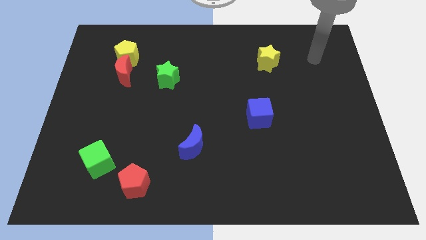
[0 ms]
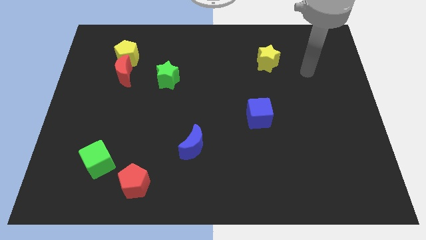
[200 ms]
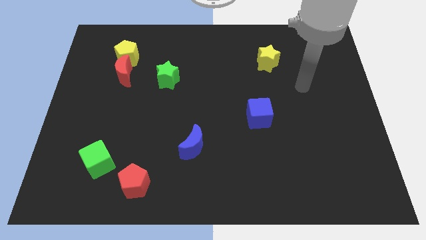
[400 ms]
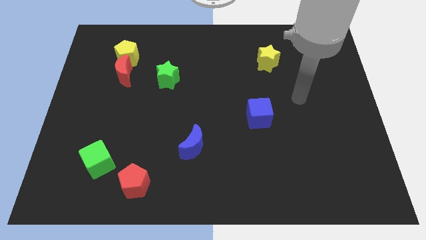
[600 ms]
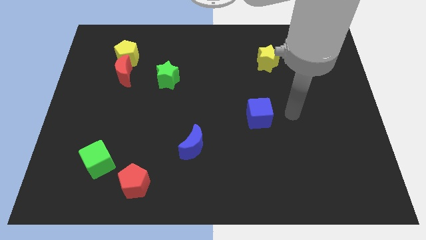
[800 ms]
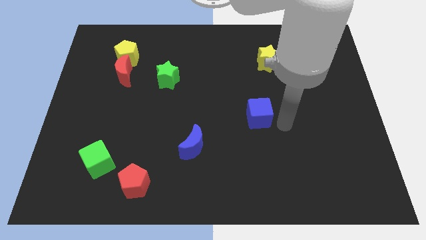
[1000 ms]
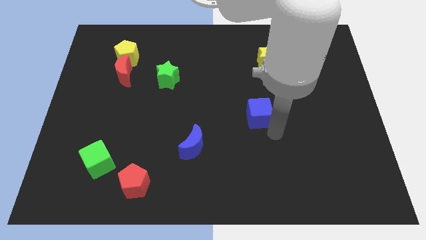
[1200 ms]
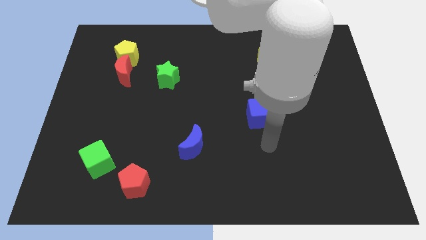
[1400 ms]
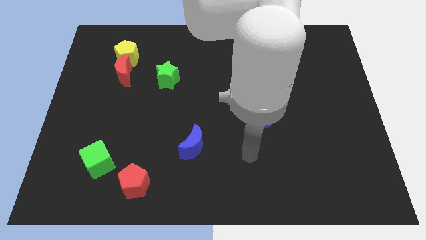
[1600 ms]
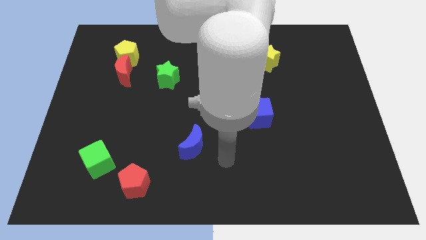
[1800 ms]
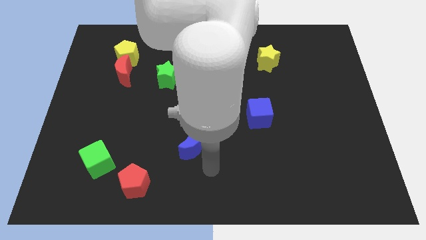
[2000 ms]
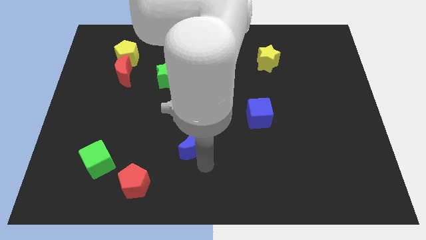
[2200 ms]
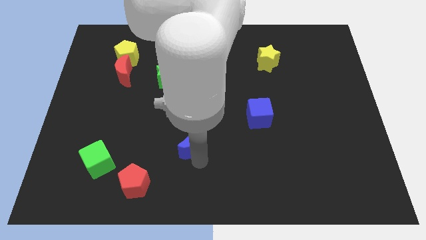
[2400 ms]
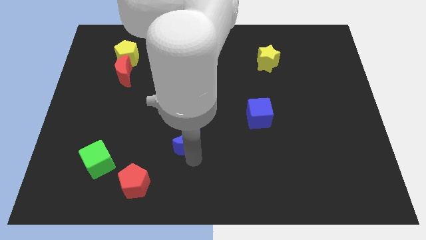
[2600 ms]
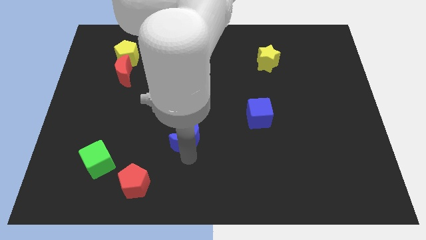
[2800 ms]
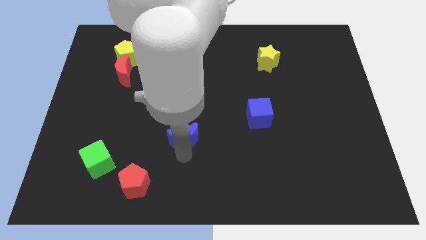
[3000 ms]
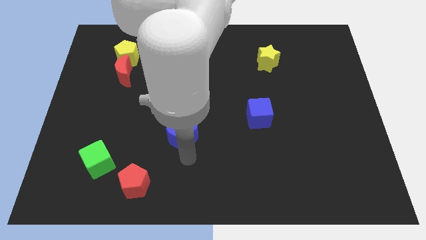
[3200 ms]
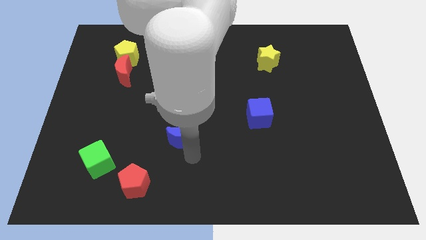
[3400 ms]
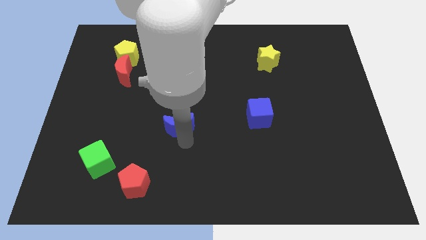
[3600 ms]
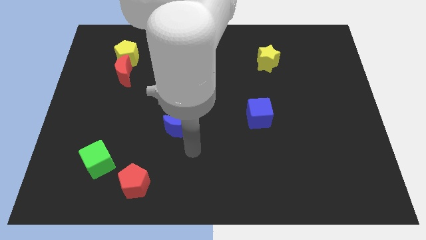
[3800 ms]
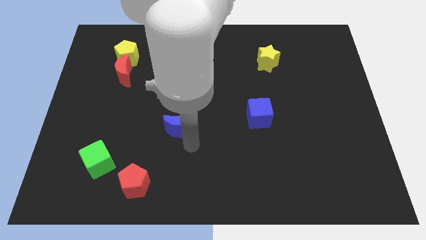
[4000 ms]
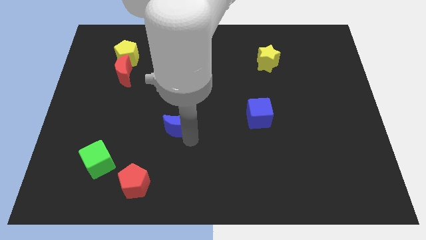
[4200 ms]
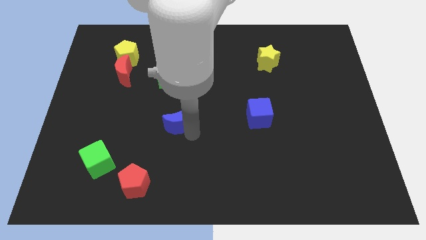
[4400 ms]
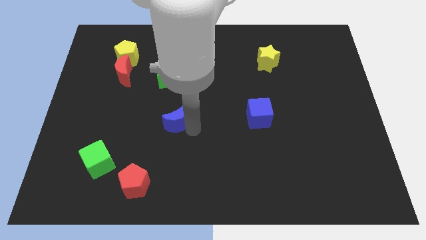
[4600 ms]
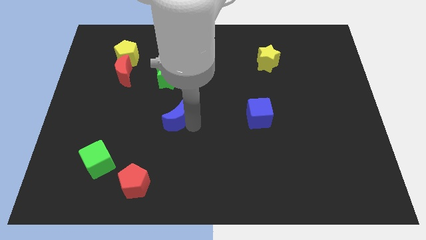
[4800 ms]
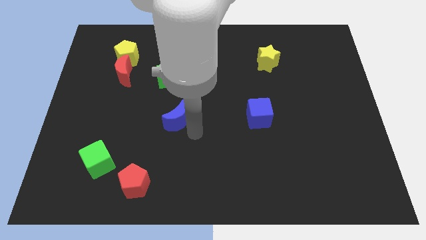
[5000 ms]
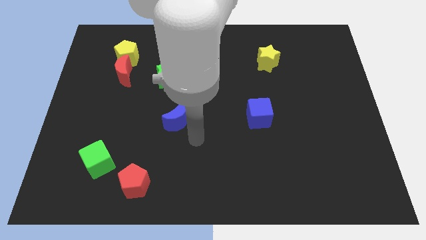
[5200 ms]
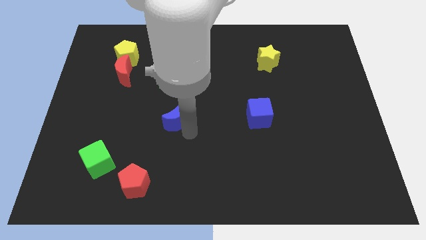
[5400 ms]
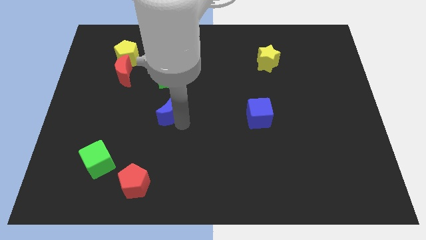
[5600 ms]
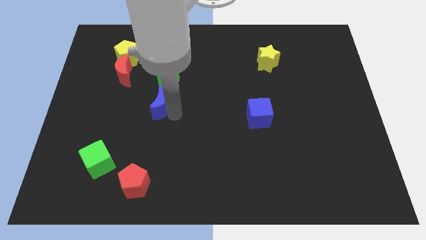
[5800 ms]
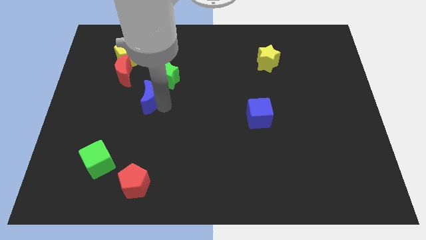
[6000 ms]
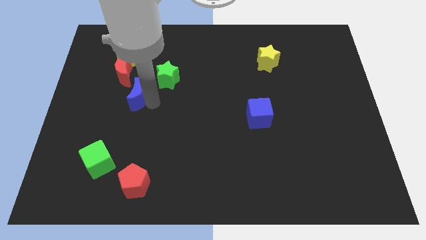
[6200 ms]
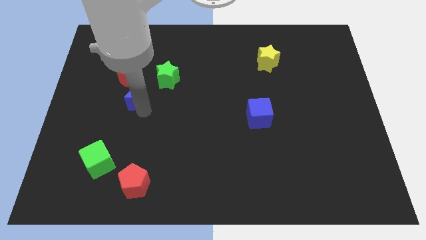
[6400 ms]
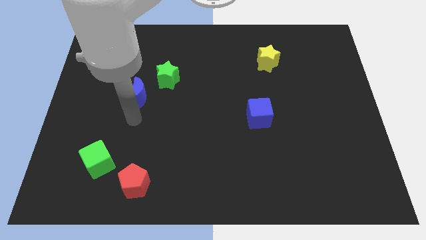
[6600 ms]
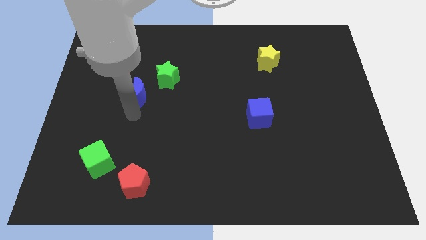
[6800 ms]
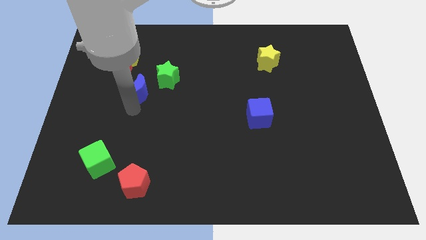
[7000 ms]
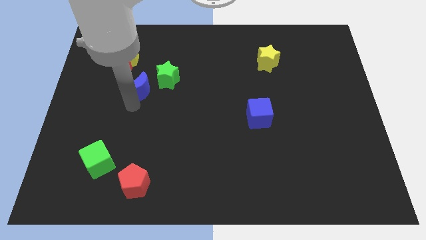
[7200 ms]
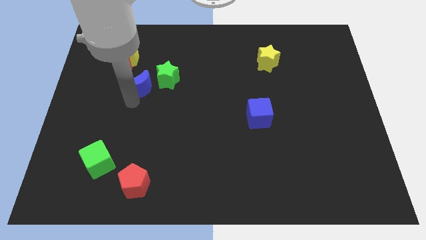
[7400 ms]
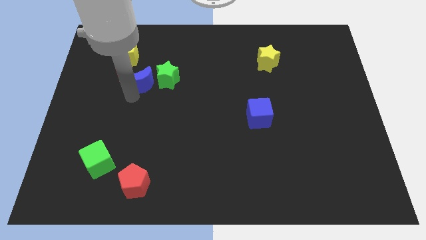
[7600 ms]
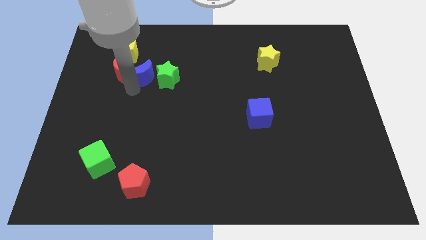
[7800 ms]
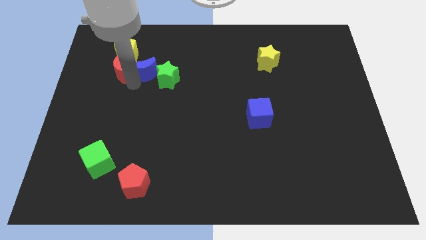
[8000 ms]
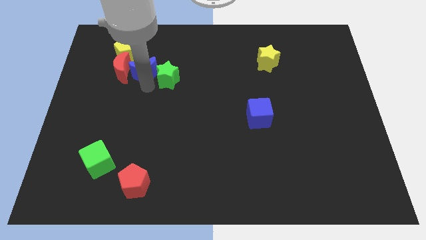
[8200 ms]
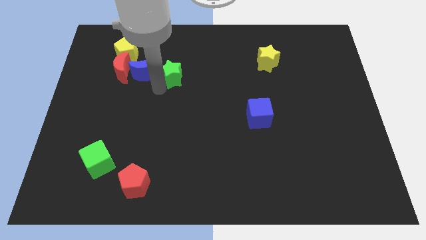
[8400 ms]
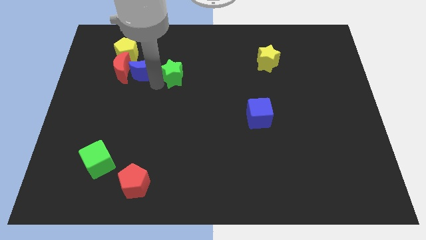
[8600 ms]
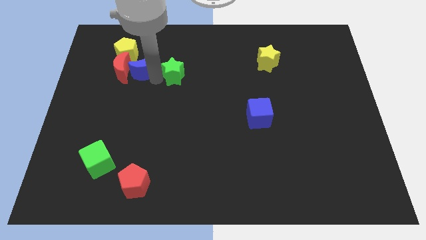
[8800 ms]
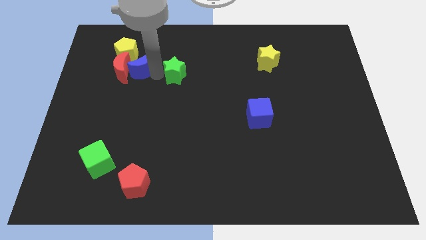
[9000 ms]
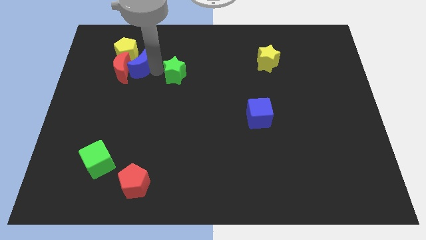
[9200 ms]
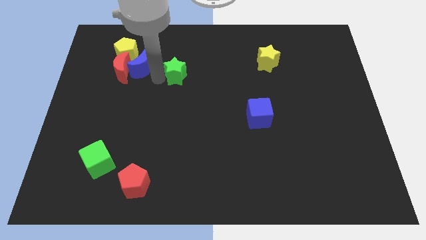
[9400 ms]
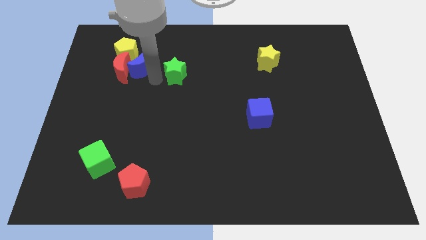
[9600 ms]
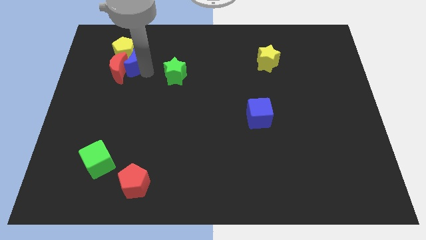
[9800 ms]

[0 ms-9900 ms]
slide the blue moon to the yellow pentagon

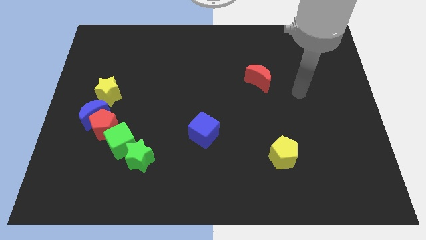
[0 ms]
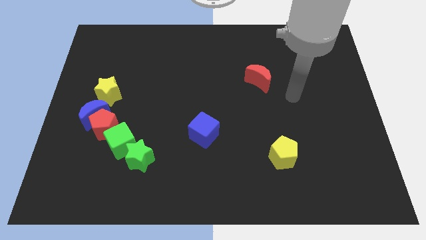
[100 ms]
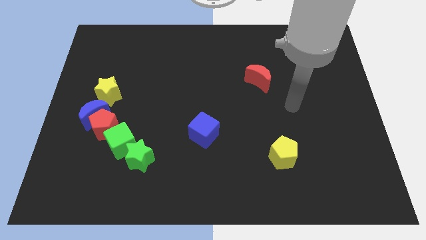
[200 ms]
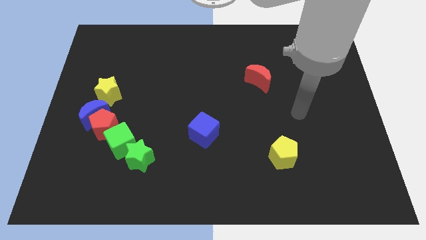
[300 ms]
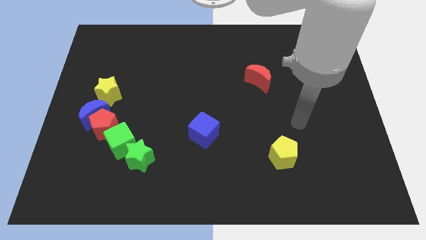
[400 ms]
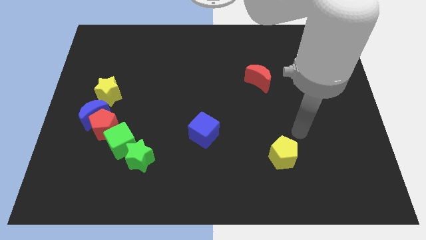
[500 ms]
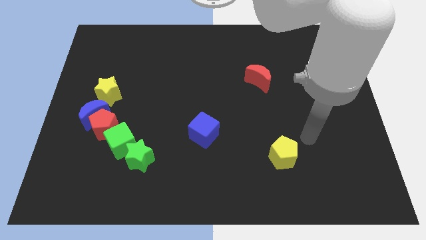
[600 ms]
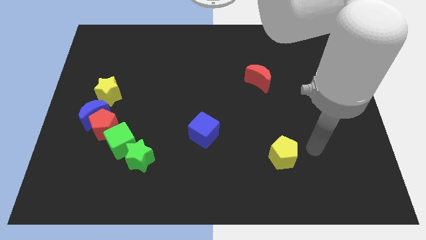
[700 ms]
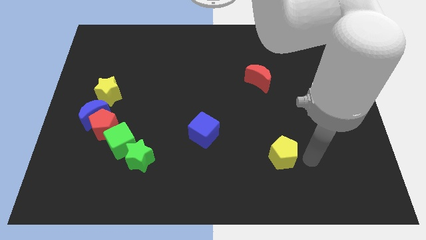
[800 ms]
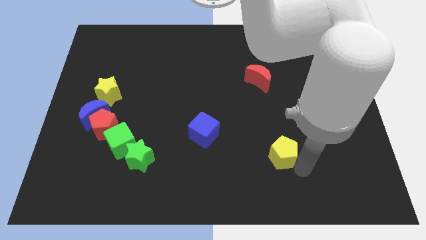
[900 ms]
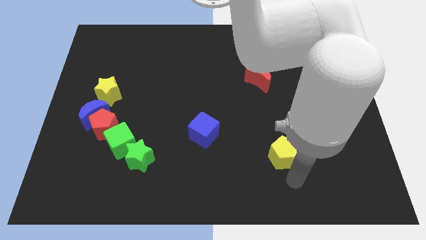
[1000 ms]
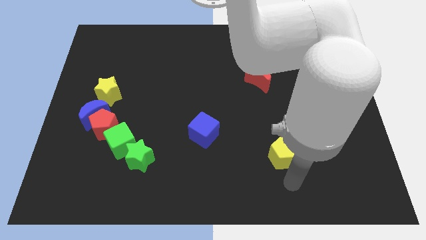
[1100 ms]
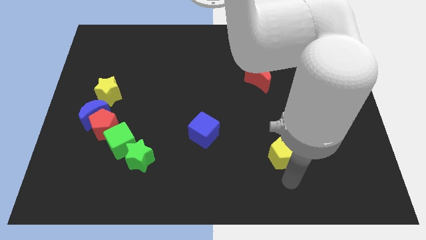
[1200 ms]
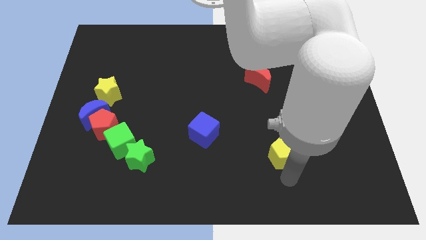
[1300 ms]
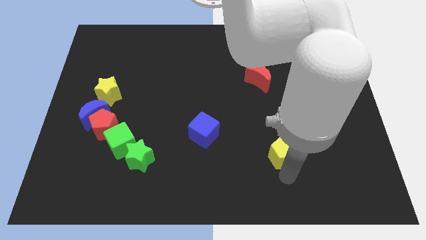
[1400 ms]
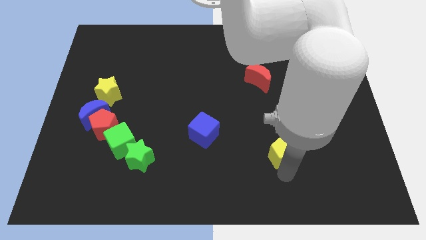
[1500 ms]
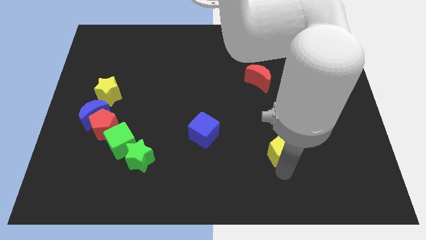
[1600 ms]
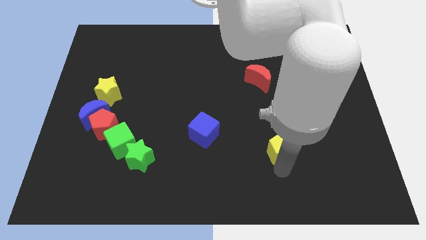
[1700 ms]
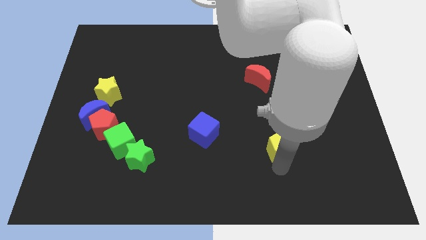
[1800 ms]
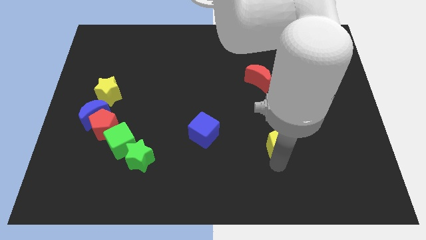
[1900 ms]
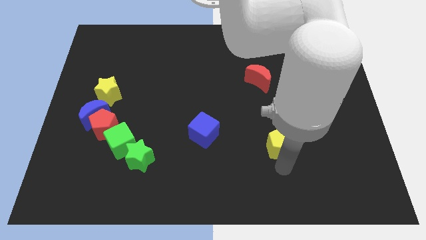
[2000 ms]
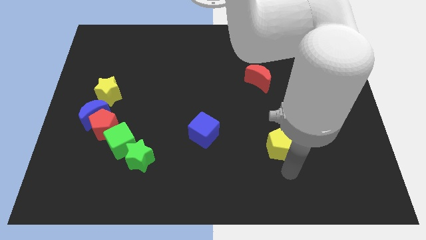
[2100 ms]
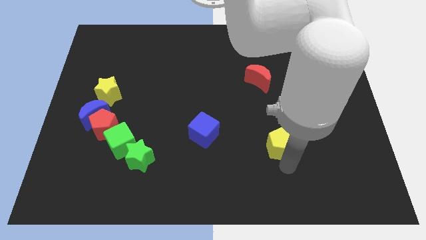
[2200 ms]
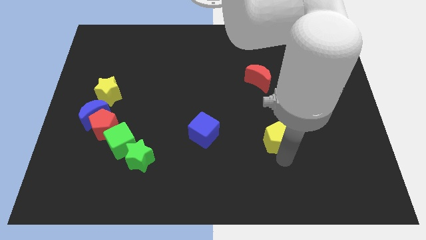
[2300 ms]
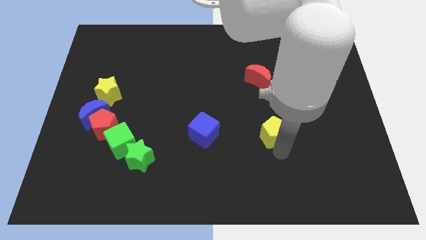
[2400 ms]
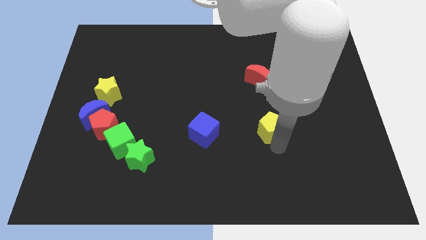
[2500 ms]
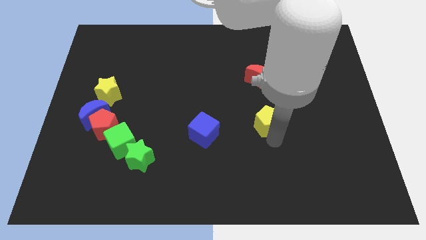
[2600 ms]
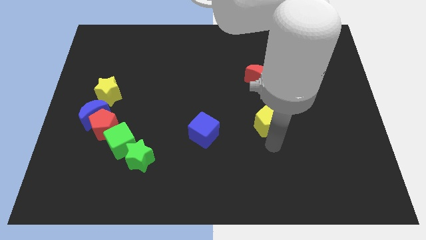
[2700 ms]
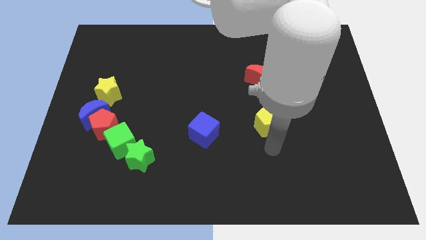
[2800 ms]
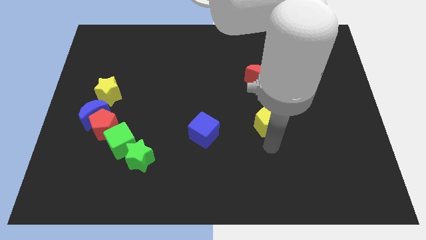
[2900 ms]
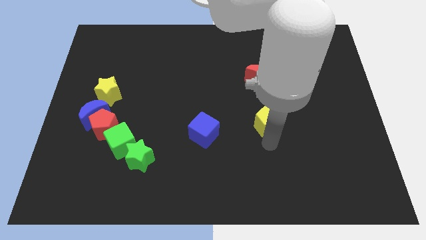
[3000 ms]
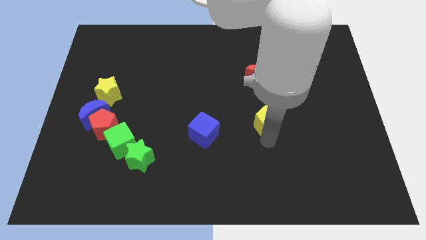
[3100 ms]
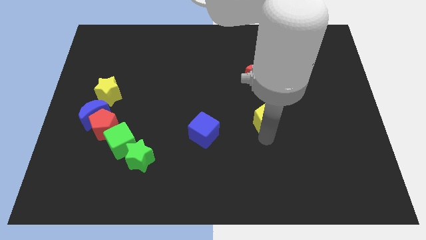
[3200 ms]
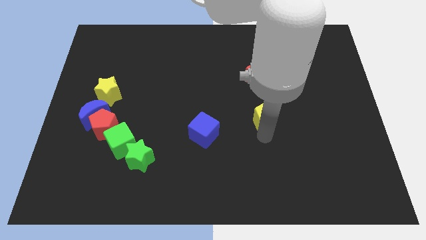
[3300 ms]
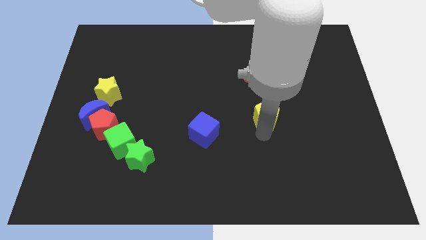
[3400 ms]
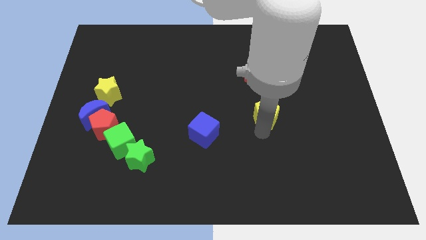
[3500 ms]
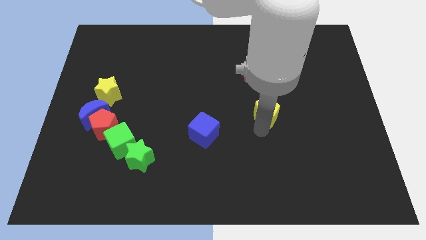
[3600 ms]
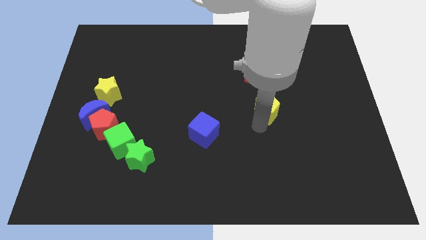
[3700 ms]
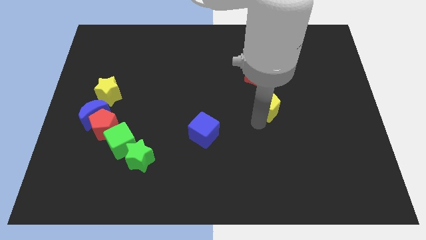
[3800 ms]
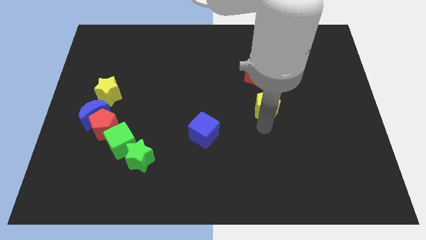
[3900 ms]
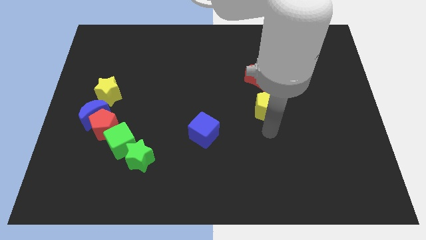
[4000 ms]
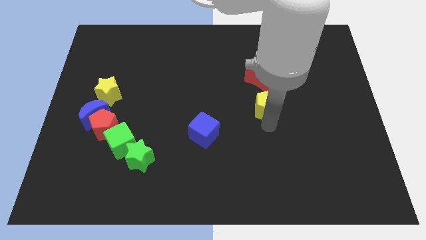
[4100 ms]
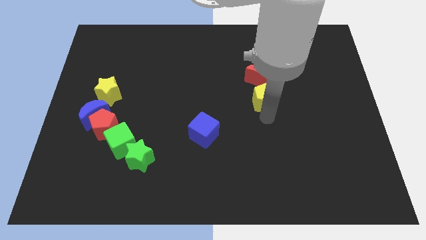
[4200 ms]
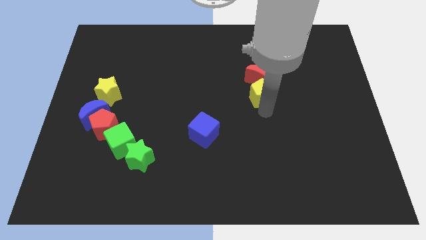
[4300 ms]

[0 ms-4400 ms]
move the yellow pentagon next to the red moon
